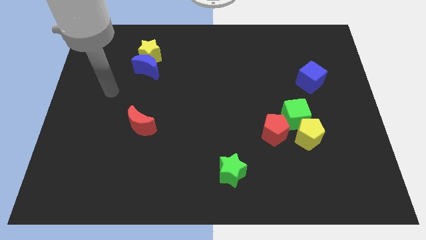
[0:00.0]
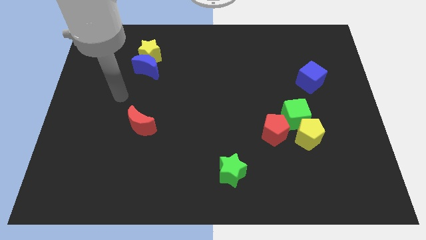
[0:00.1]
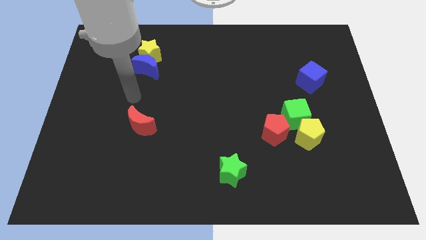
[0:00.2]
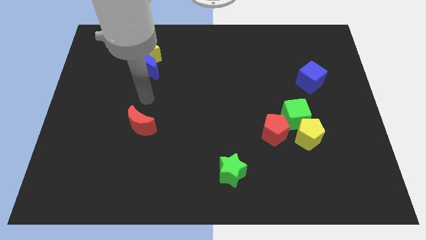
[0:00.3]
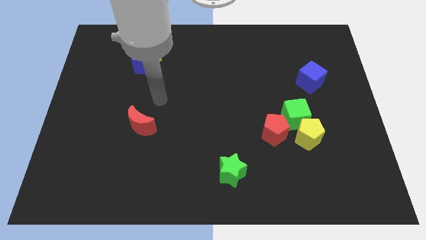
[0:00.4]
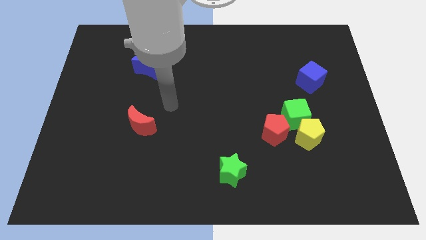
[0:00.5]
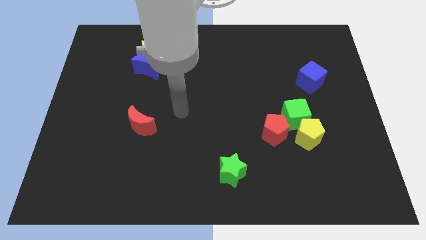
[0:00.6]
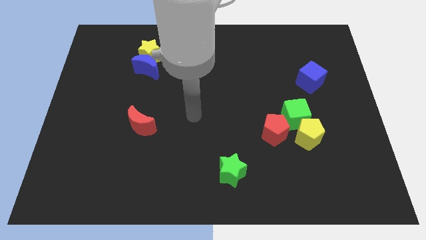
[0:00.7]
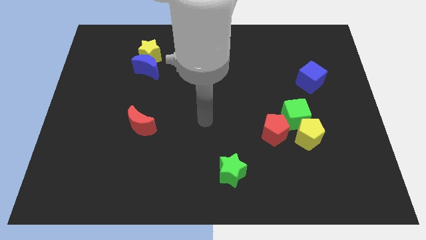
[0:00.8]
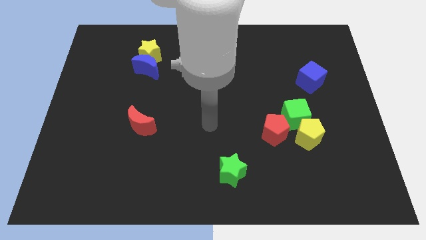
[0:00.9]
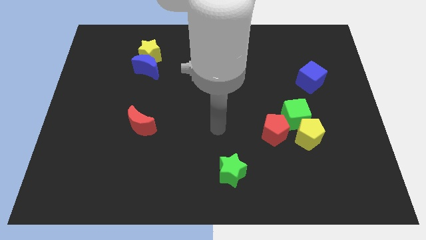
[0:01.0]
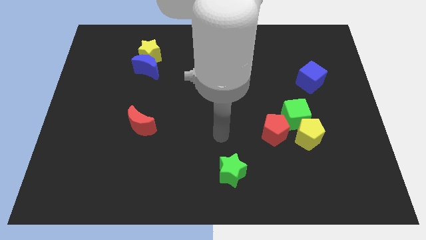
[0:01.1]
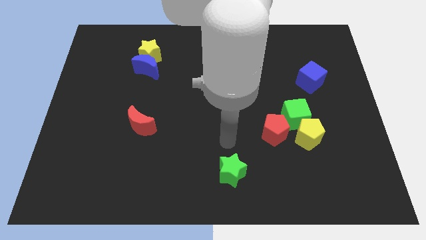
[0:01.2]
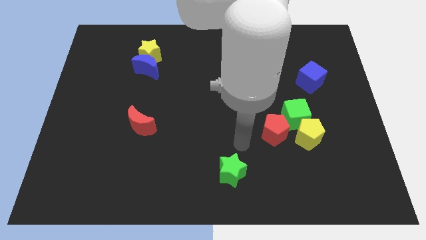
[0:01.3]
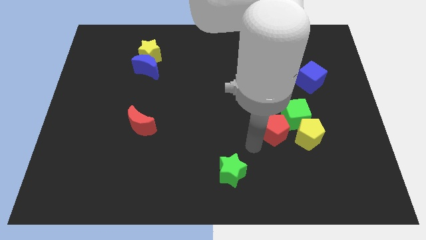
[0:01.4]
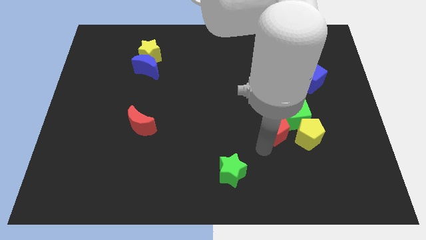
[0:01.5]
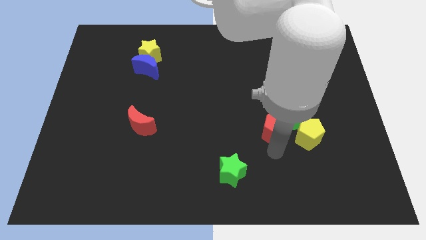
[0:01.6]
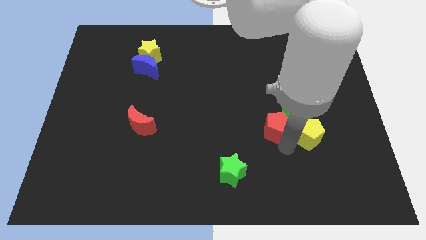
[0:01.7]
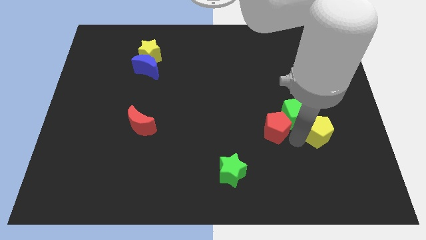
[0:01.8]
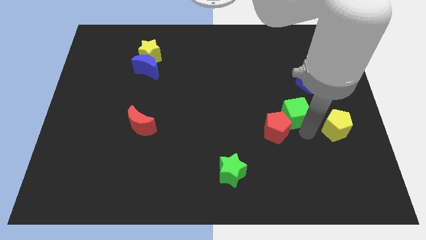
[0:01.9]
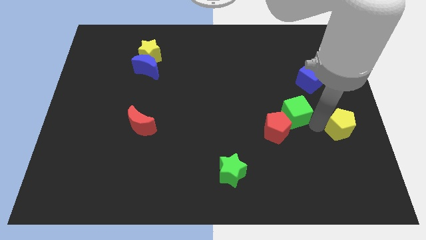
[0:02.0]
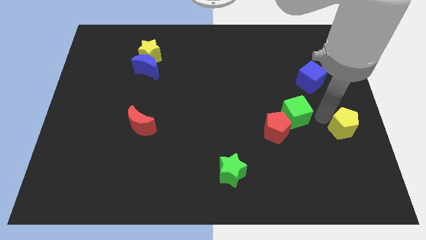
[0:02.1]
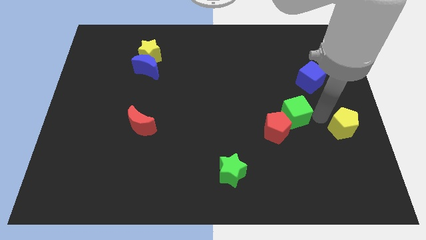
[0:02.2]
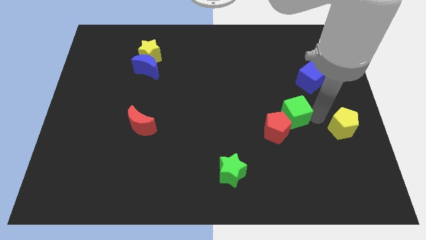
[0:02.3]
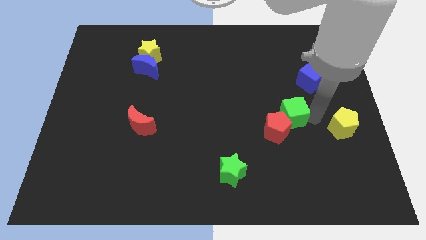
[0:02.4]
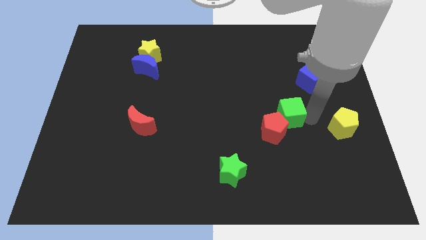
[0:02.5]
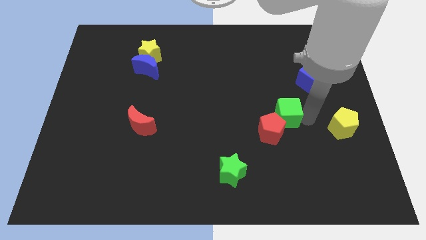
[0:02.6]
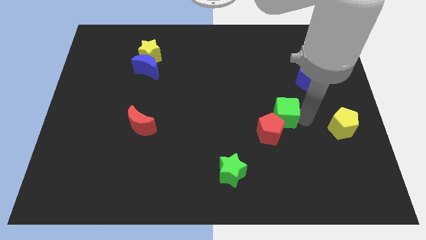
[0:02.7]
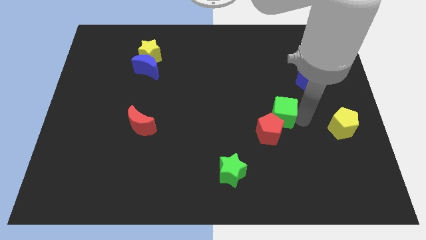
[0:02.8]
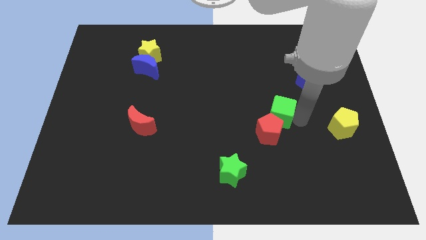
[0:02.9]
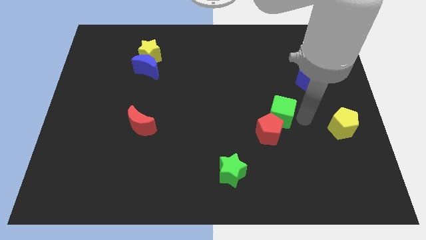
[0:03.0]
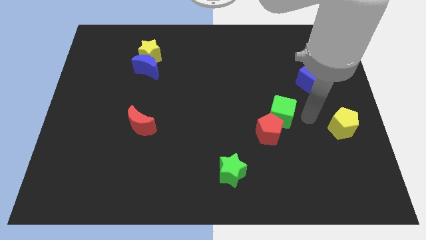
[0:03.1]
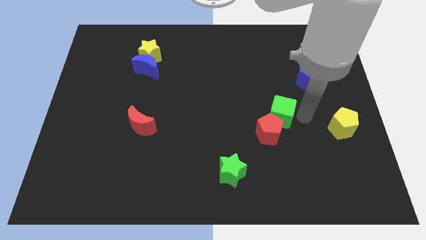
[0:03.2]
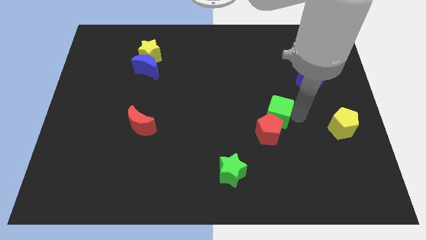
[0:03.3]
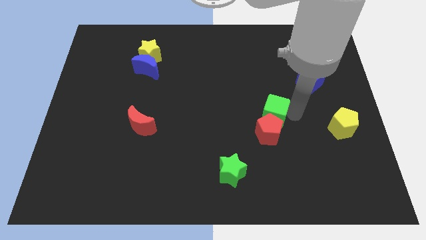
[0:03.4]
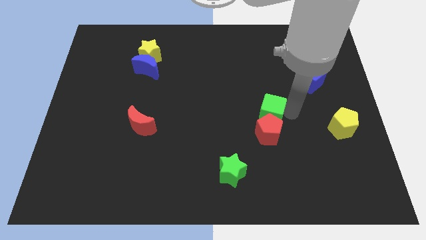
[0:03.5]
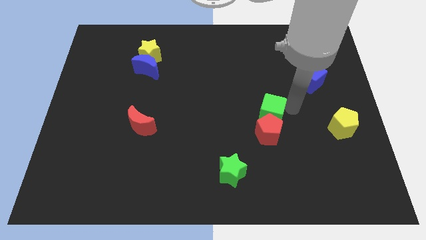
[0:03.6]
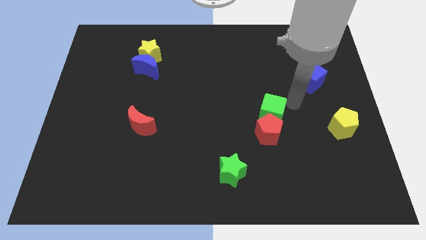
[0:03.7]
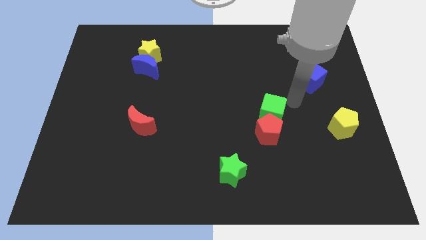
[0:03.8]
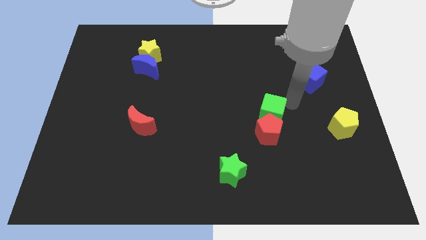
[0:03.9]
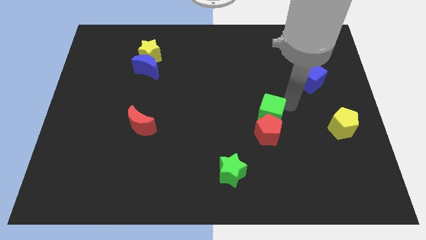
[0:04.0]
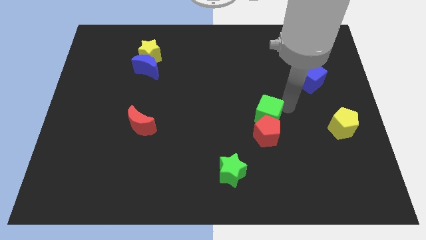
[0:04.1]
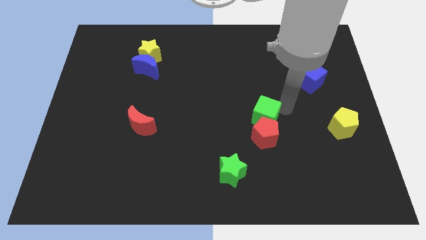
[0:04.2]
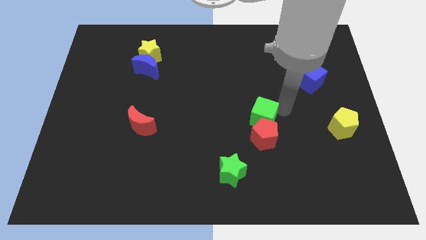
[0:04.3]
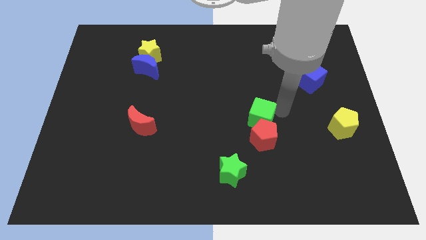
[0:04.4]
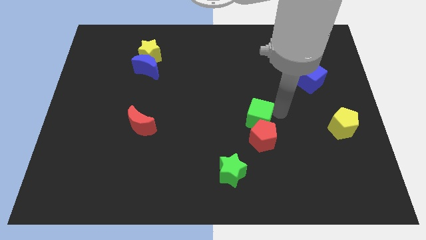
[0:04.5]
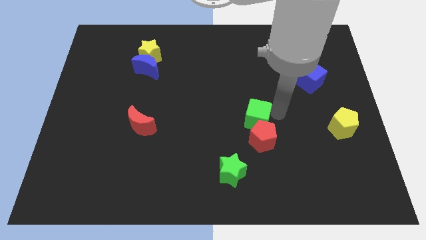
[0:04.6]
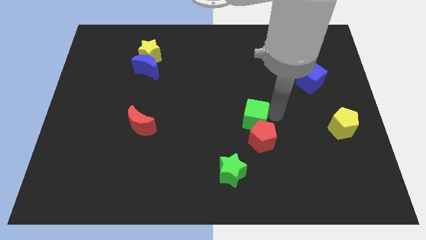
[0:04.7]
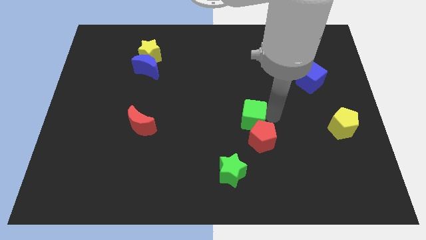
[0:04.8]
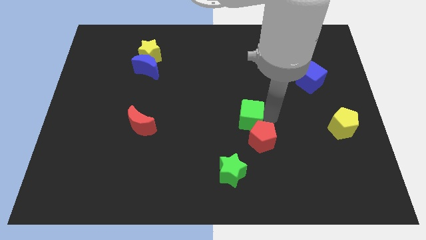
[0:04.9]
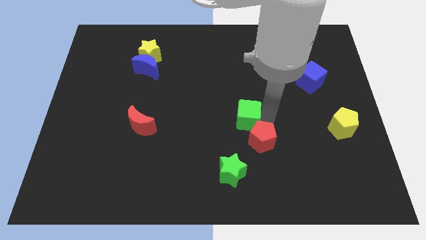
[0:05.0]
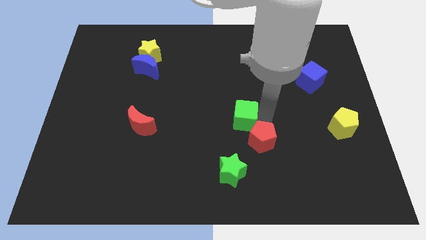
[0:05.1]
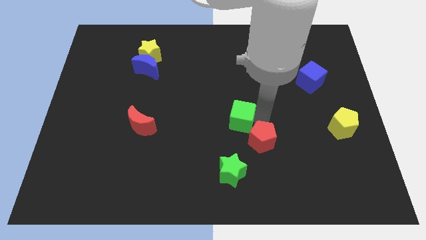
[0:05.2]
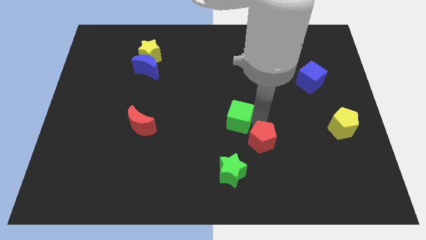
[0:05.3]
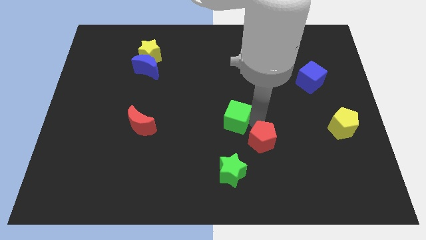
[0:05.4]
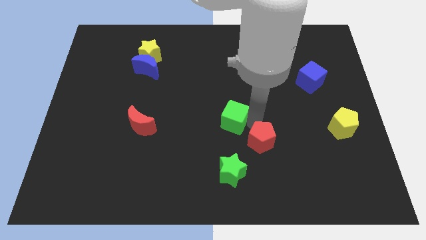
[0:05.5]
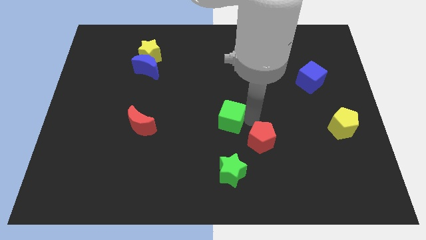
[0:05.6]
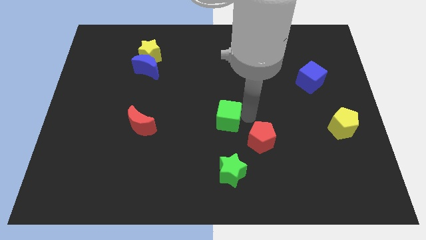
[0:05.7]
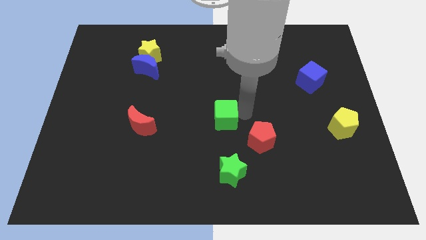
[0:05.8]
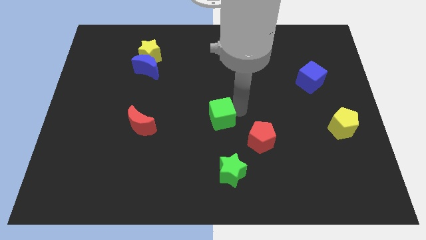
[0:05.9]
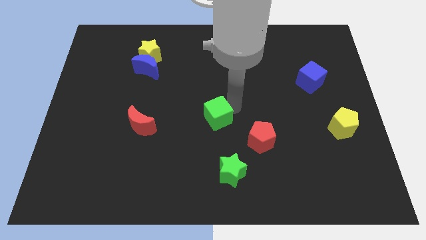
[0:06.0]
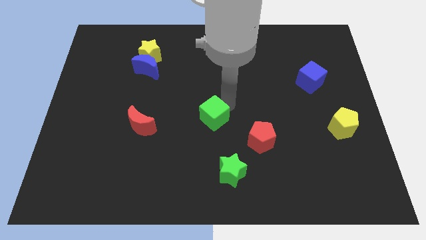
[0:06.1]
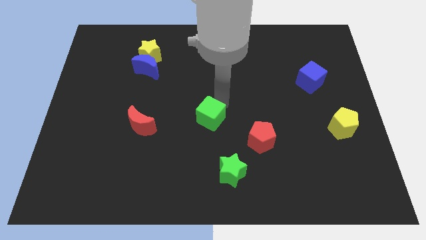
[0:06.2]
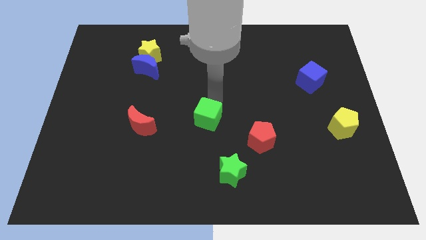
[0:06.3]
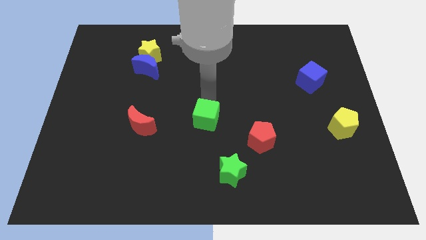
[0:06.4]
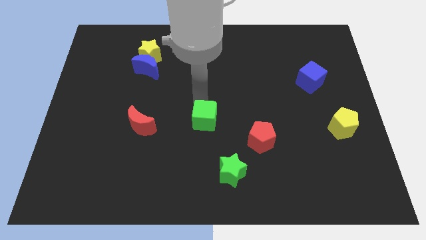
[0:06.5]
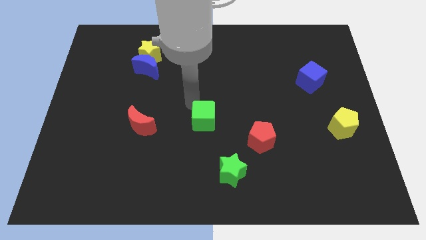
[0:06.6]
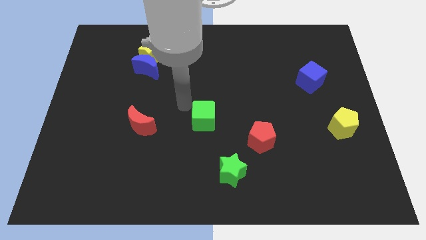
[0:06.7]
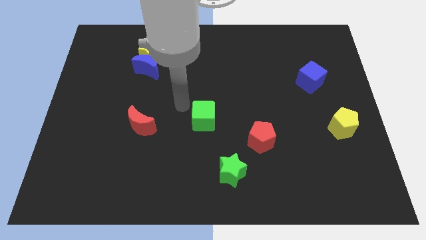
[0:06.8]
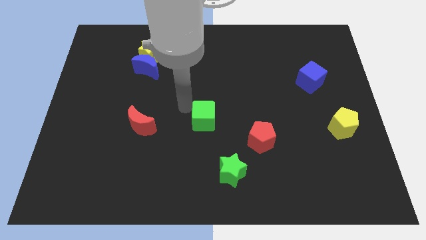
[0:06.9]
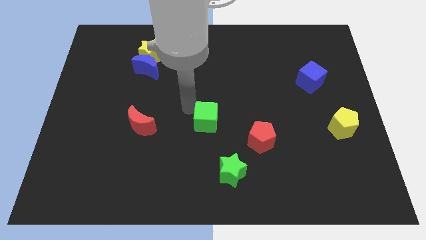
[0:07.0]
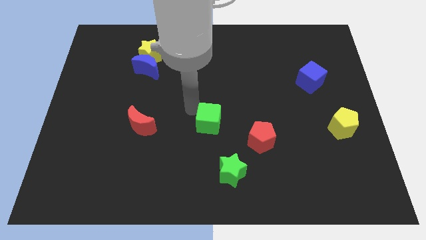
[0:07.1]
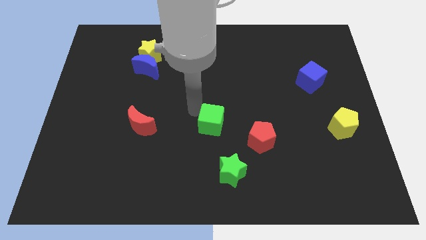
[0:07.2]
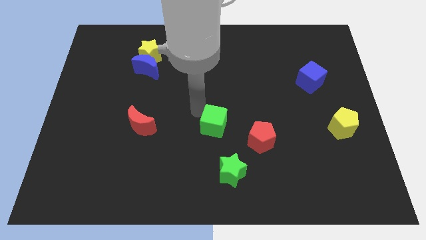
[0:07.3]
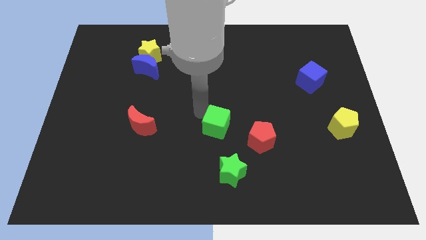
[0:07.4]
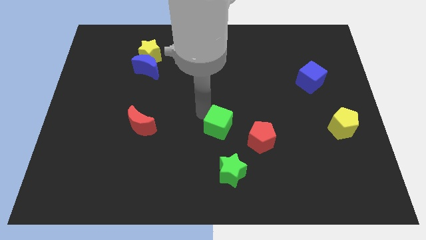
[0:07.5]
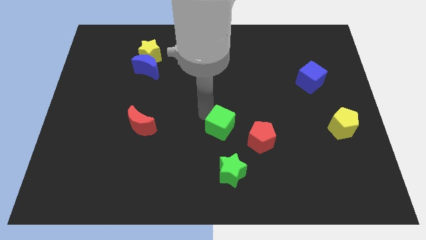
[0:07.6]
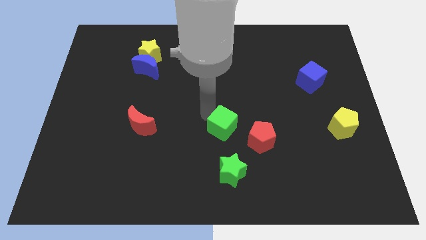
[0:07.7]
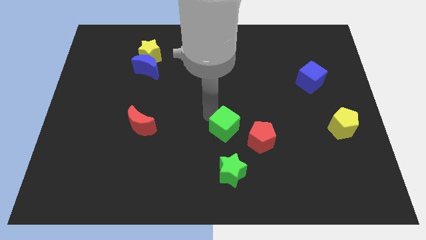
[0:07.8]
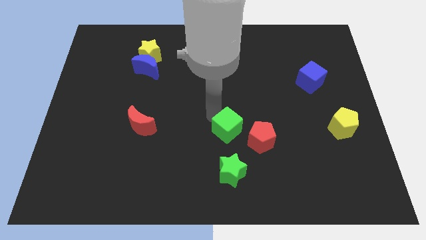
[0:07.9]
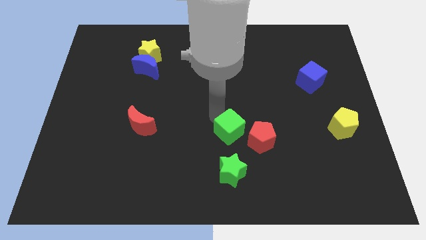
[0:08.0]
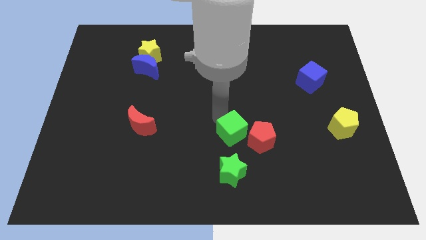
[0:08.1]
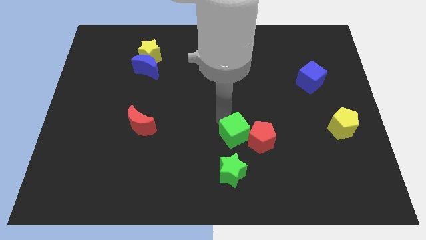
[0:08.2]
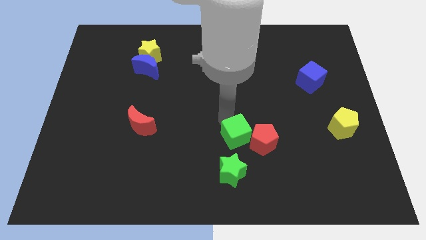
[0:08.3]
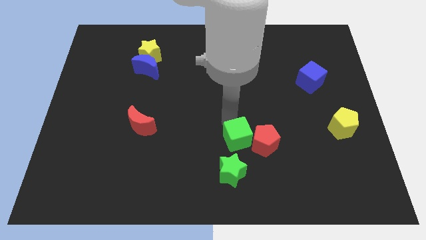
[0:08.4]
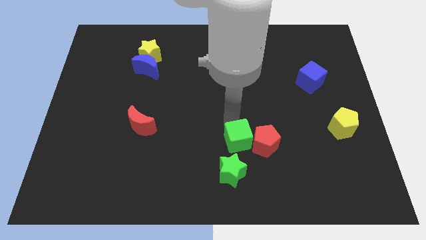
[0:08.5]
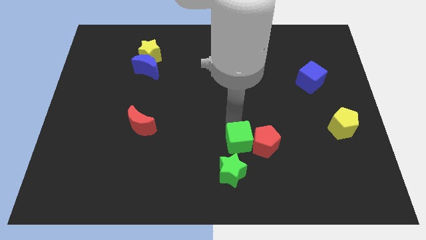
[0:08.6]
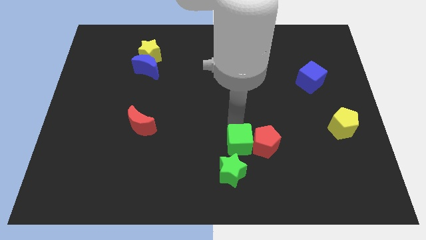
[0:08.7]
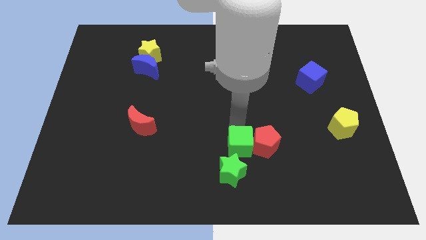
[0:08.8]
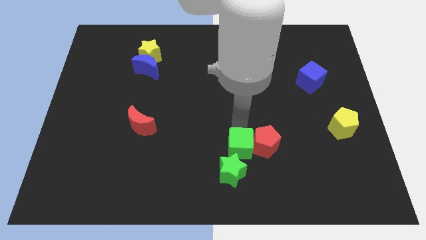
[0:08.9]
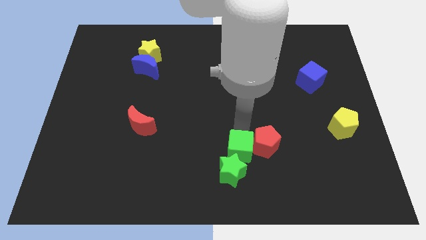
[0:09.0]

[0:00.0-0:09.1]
put the green cube towards the green star
